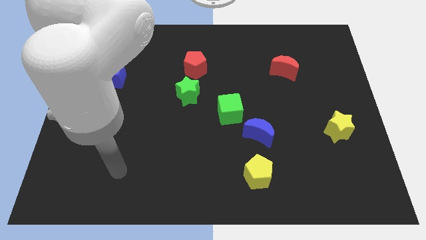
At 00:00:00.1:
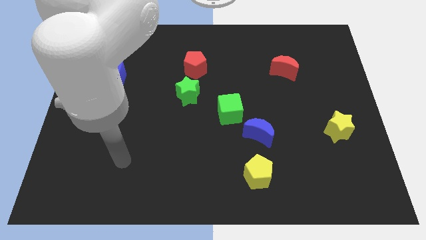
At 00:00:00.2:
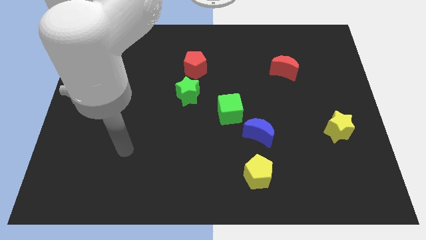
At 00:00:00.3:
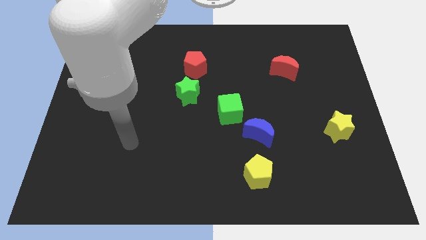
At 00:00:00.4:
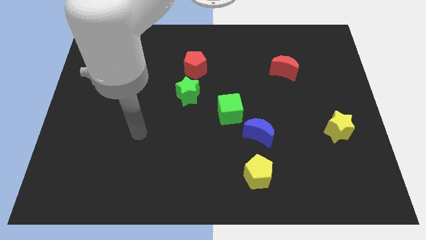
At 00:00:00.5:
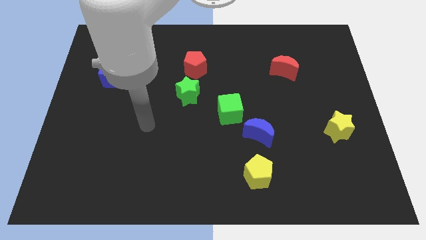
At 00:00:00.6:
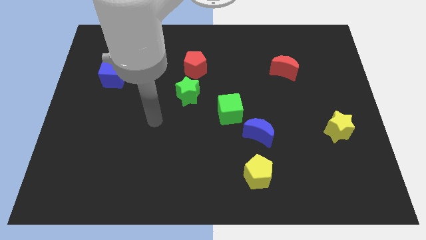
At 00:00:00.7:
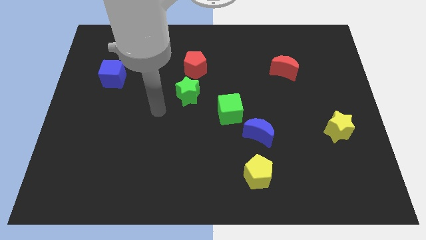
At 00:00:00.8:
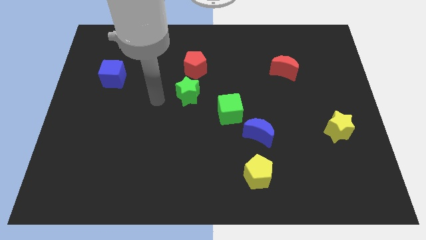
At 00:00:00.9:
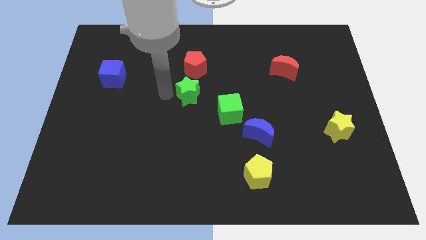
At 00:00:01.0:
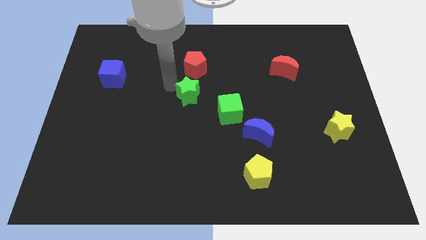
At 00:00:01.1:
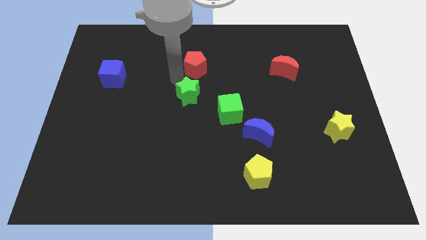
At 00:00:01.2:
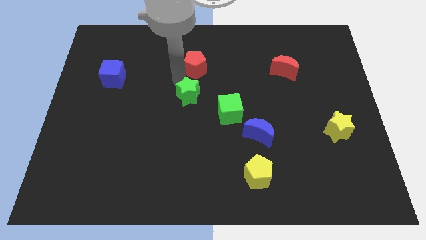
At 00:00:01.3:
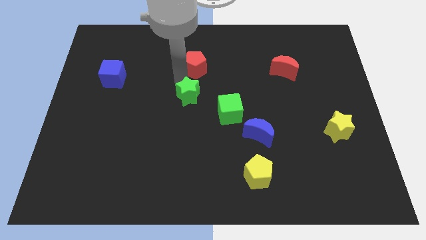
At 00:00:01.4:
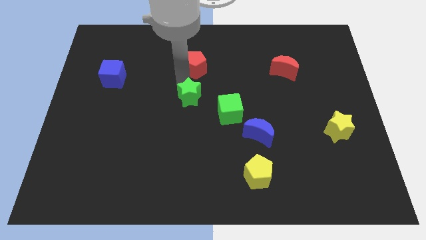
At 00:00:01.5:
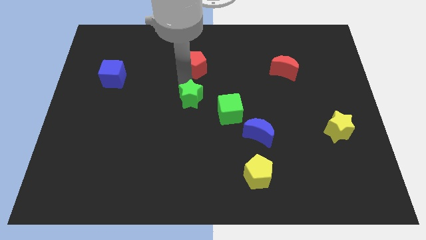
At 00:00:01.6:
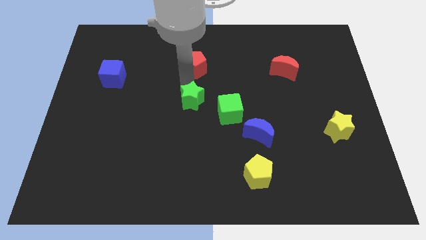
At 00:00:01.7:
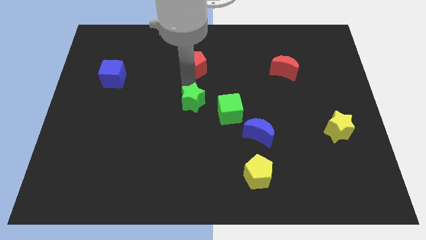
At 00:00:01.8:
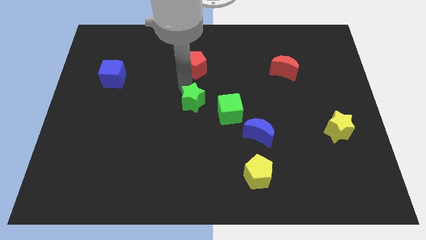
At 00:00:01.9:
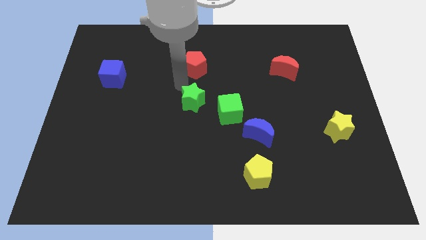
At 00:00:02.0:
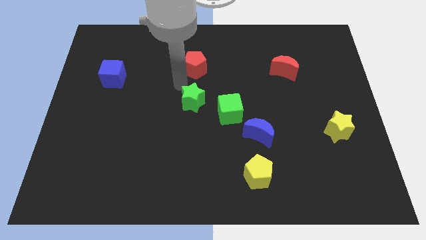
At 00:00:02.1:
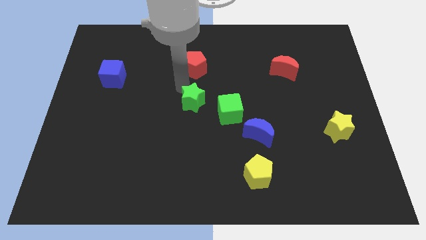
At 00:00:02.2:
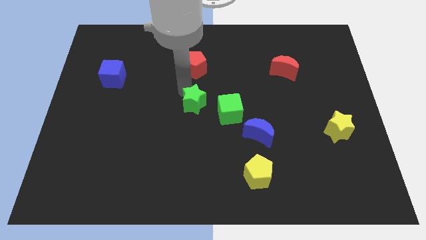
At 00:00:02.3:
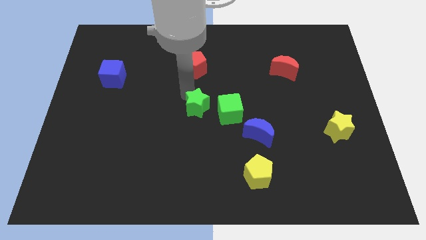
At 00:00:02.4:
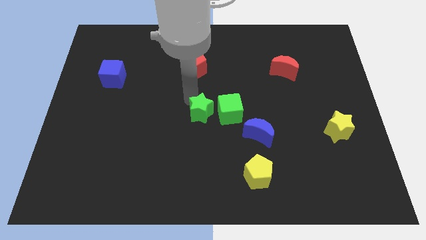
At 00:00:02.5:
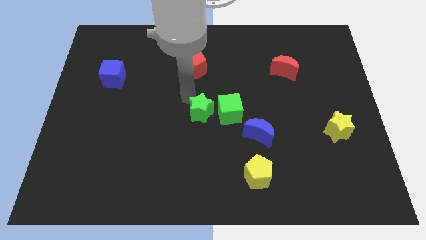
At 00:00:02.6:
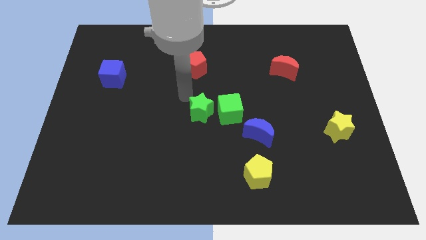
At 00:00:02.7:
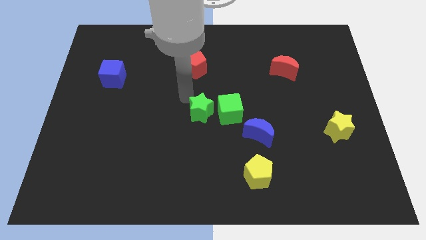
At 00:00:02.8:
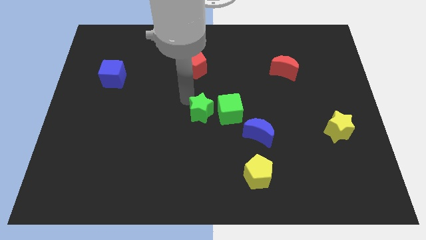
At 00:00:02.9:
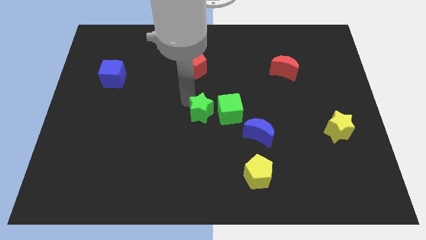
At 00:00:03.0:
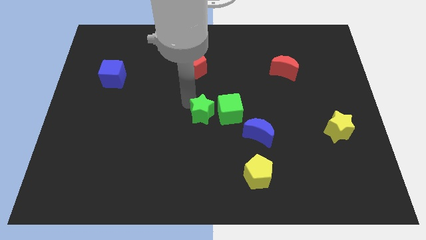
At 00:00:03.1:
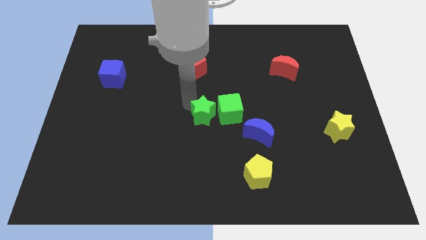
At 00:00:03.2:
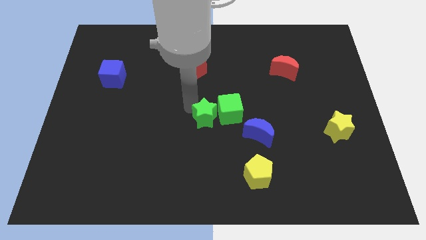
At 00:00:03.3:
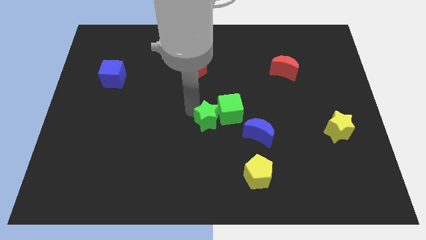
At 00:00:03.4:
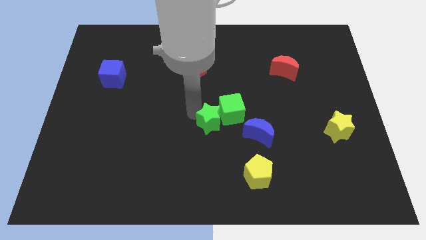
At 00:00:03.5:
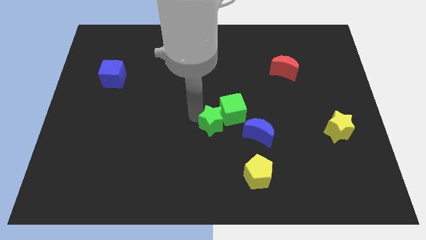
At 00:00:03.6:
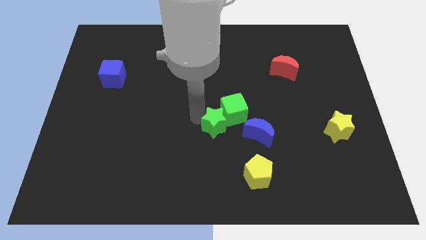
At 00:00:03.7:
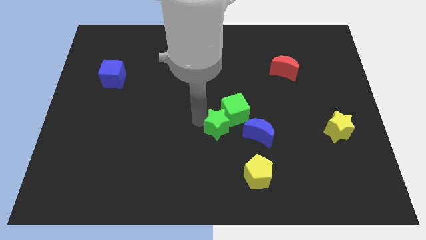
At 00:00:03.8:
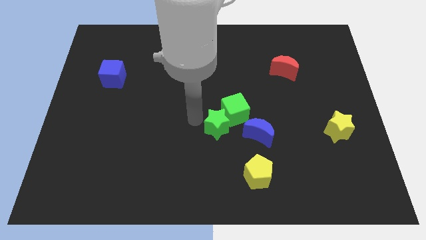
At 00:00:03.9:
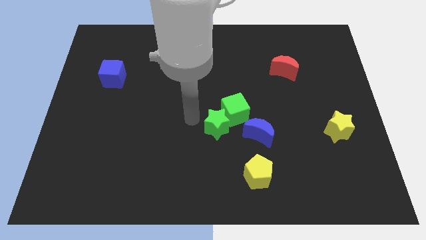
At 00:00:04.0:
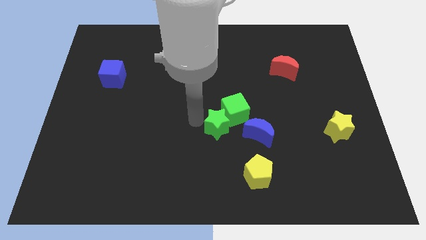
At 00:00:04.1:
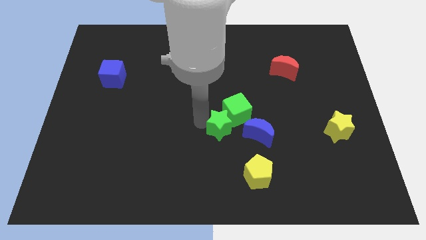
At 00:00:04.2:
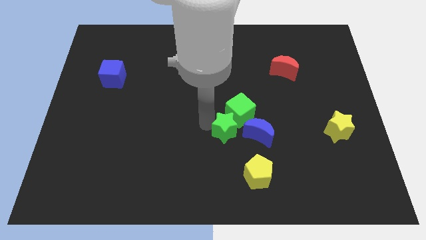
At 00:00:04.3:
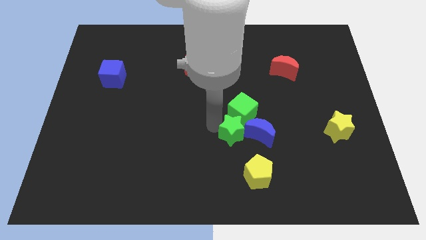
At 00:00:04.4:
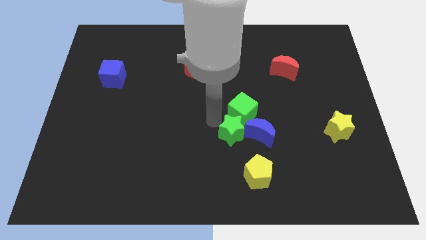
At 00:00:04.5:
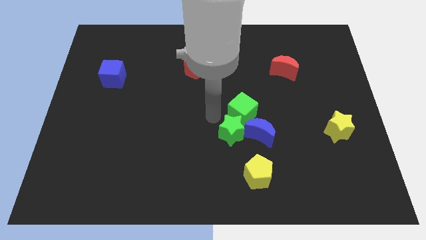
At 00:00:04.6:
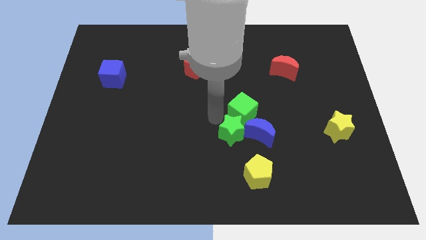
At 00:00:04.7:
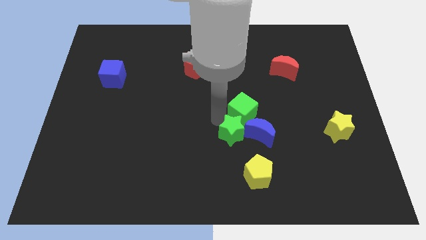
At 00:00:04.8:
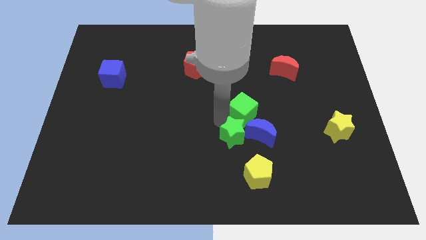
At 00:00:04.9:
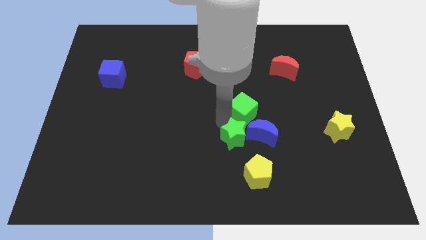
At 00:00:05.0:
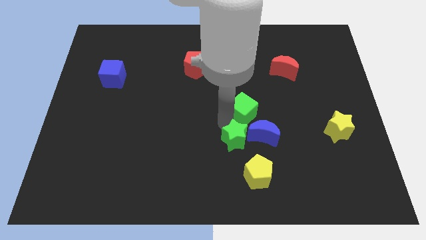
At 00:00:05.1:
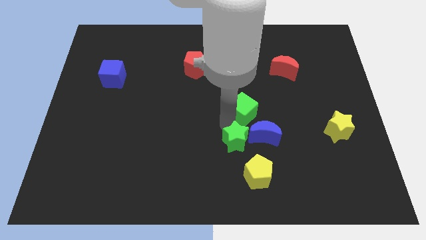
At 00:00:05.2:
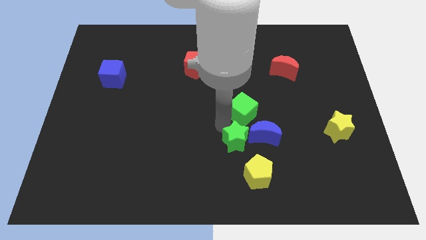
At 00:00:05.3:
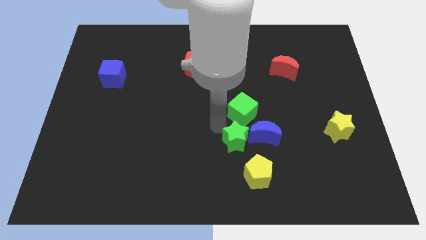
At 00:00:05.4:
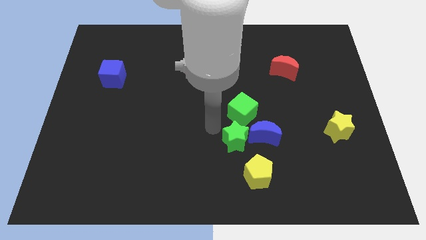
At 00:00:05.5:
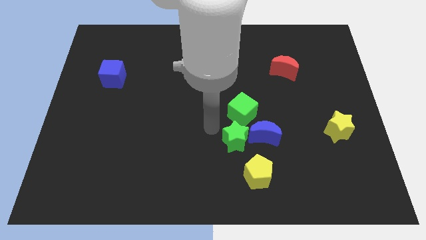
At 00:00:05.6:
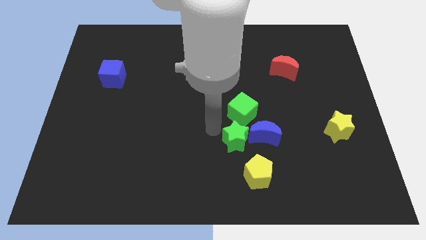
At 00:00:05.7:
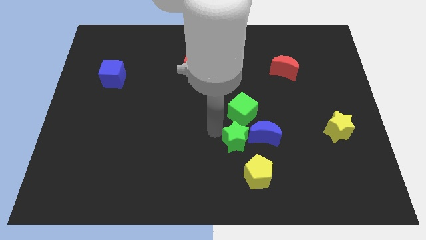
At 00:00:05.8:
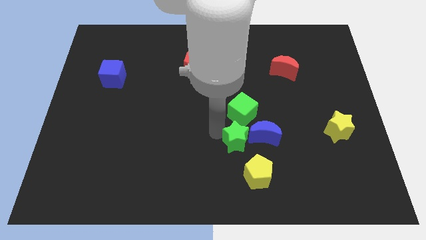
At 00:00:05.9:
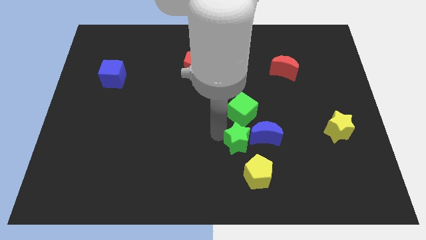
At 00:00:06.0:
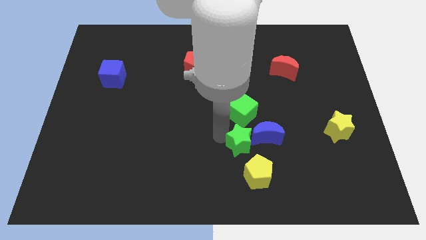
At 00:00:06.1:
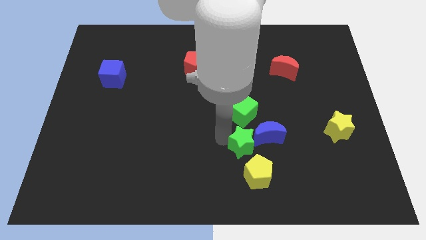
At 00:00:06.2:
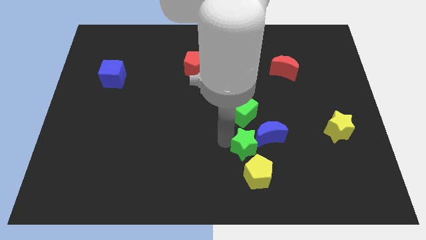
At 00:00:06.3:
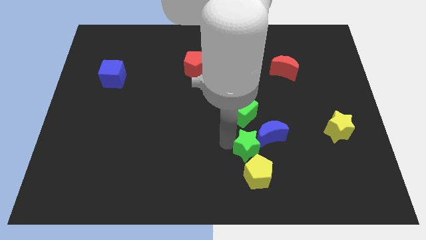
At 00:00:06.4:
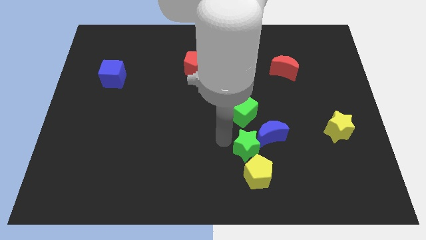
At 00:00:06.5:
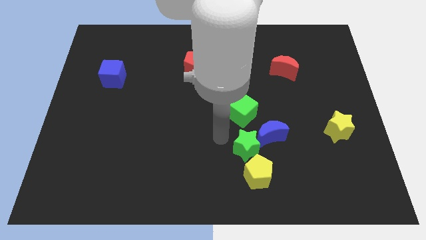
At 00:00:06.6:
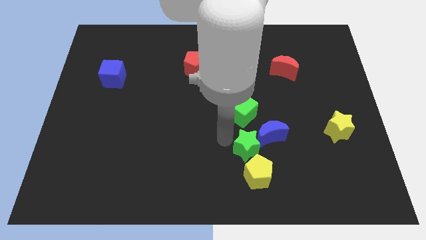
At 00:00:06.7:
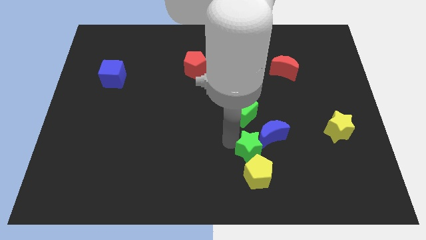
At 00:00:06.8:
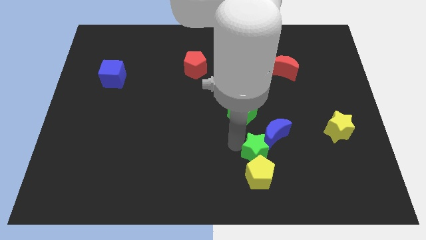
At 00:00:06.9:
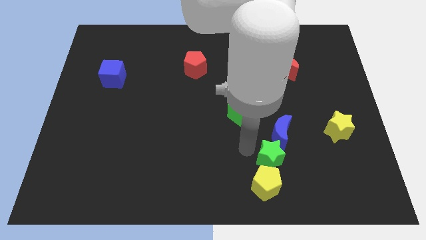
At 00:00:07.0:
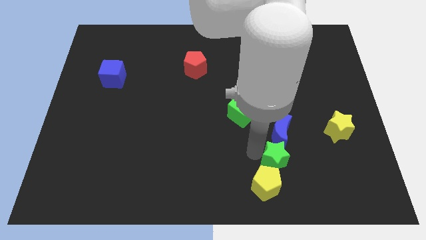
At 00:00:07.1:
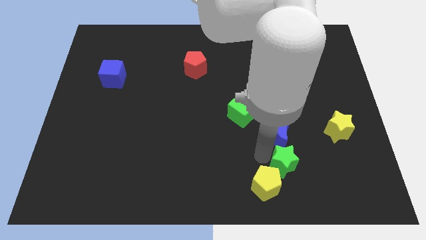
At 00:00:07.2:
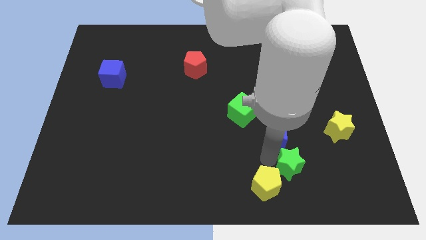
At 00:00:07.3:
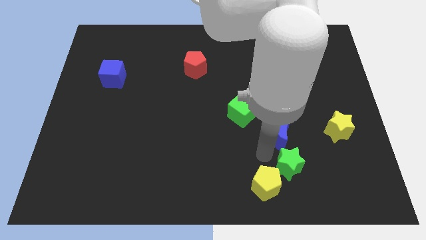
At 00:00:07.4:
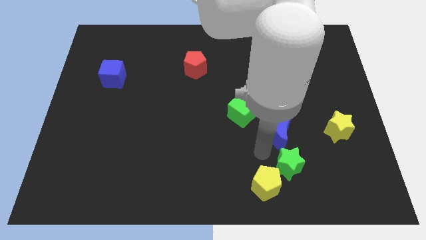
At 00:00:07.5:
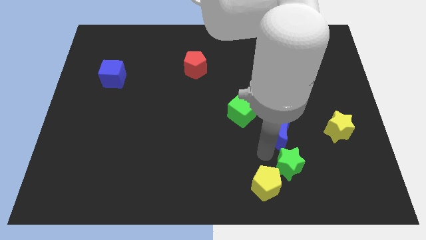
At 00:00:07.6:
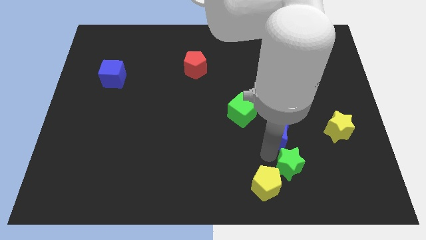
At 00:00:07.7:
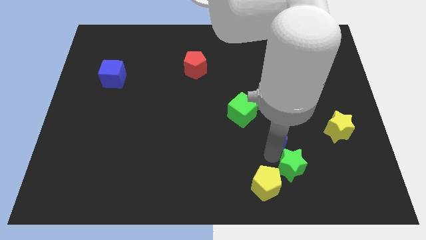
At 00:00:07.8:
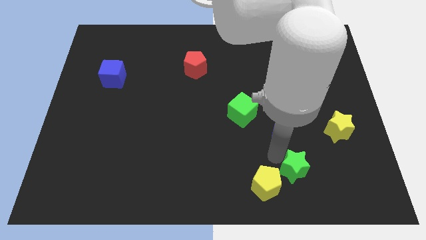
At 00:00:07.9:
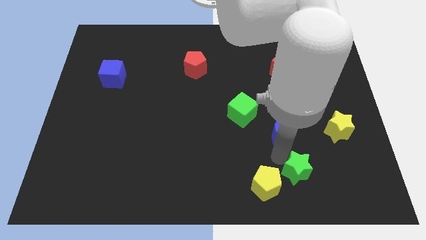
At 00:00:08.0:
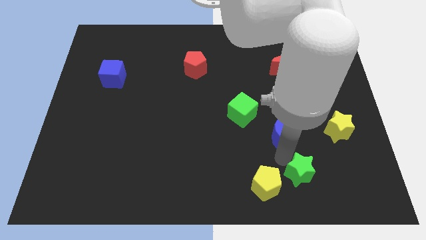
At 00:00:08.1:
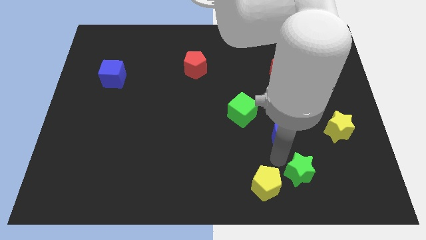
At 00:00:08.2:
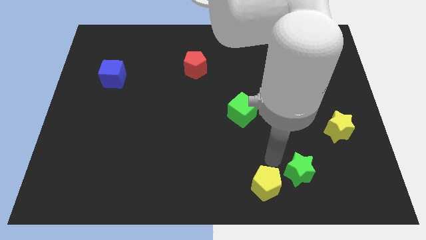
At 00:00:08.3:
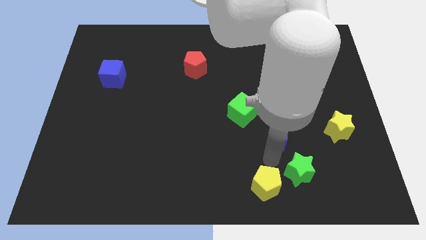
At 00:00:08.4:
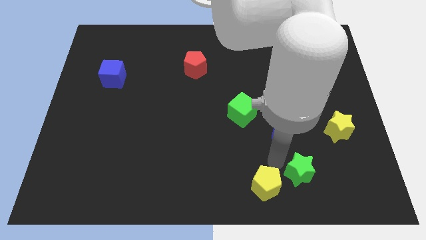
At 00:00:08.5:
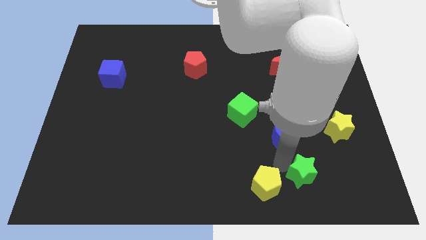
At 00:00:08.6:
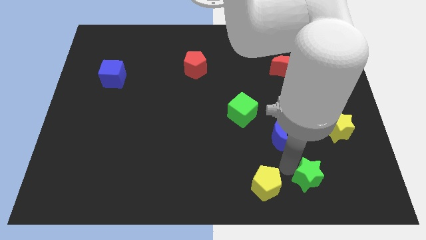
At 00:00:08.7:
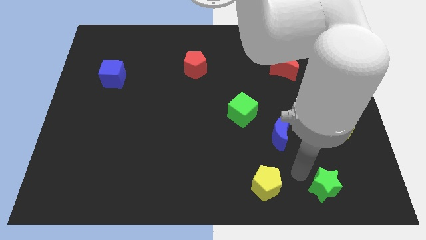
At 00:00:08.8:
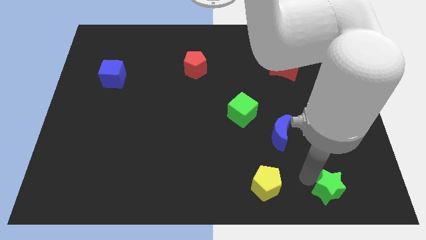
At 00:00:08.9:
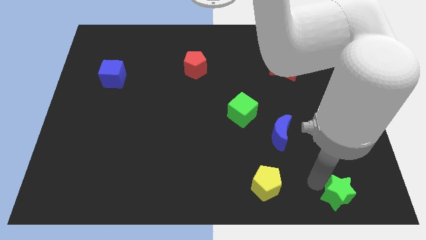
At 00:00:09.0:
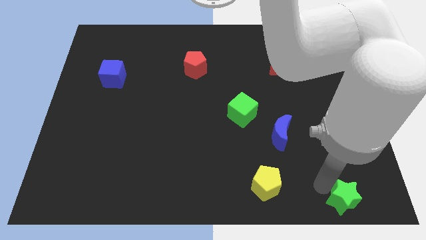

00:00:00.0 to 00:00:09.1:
push the green star to the bottom right
